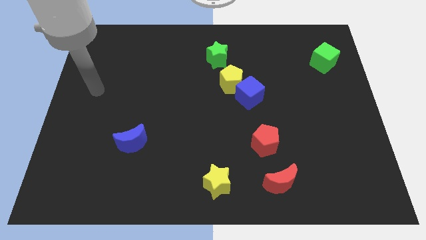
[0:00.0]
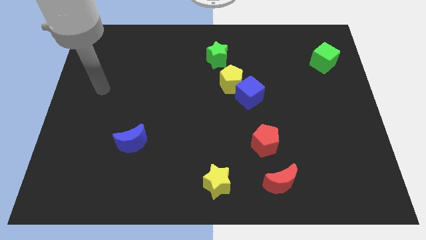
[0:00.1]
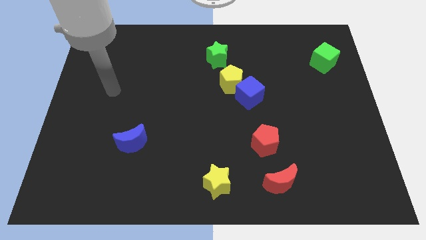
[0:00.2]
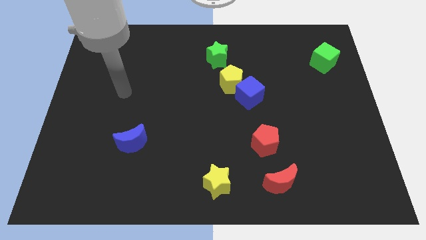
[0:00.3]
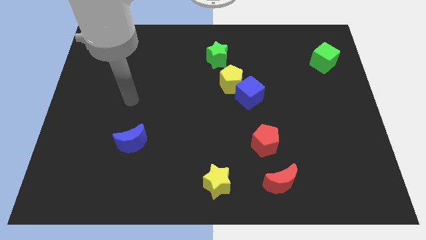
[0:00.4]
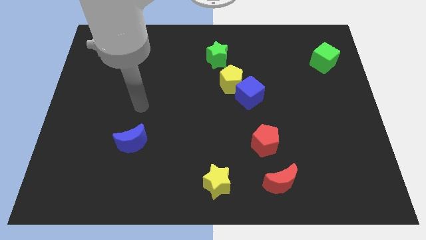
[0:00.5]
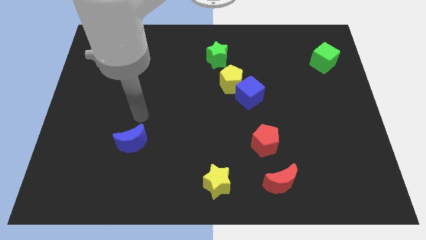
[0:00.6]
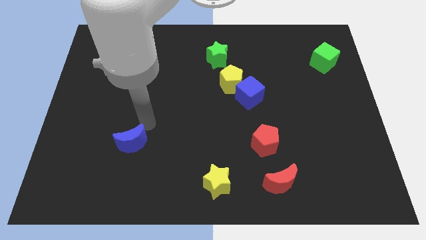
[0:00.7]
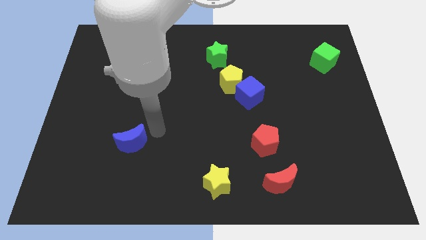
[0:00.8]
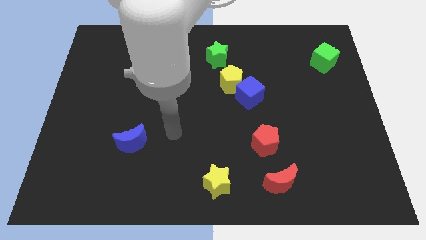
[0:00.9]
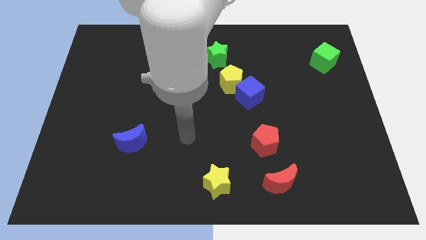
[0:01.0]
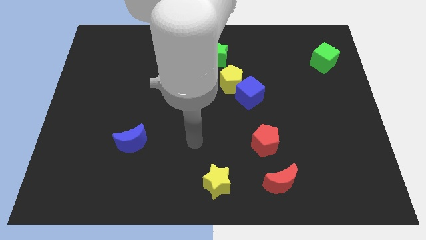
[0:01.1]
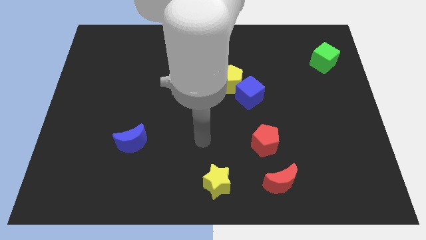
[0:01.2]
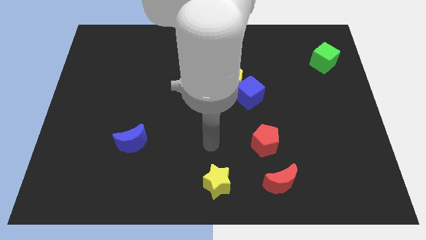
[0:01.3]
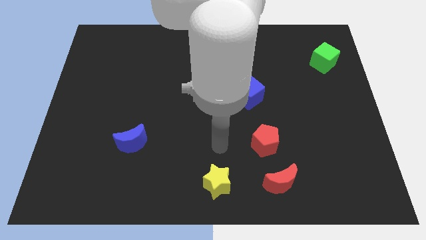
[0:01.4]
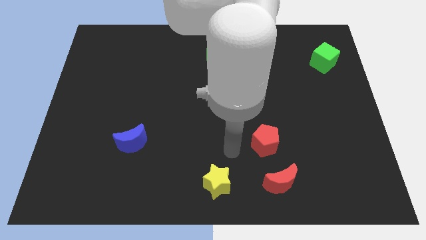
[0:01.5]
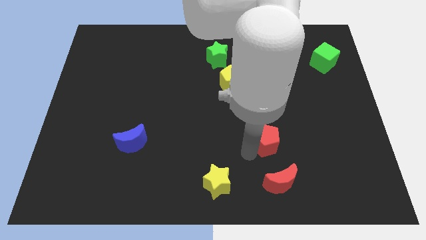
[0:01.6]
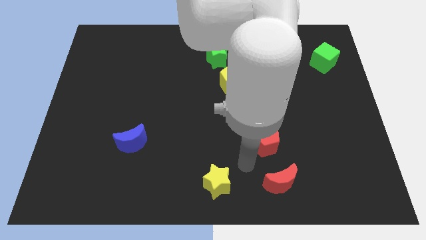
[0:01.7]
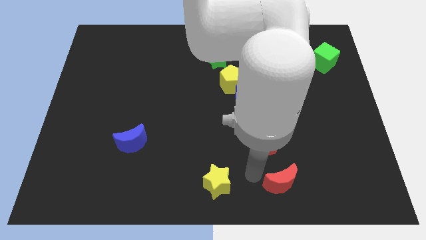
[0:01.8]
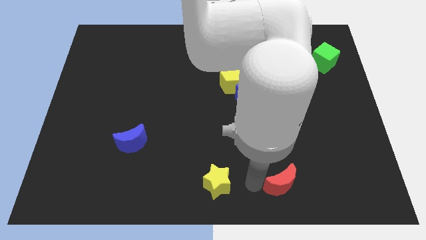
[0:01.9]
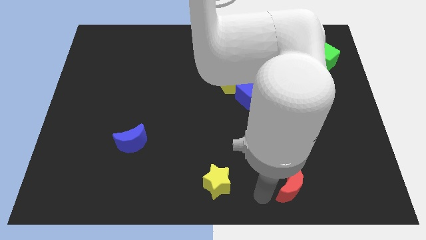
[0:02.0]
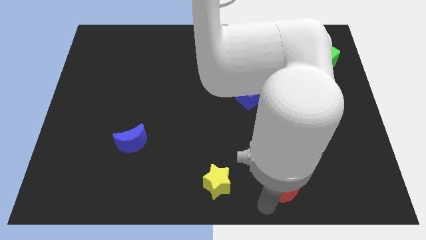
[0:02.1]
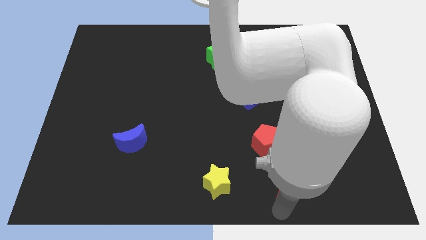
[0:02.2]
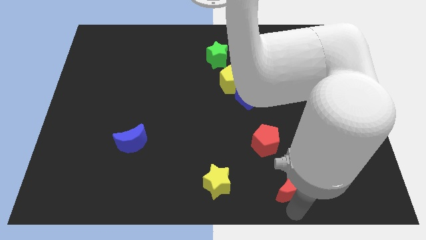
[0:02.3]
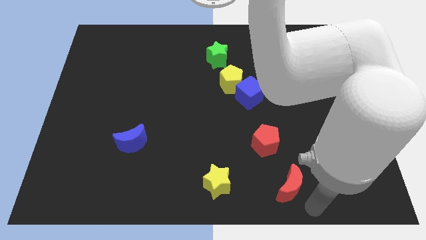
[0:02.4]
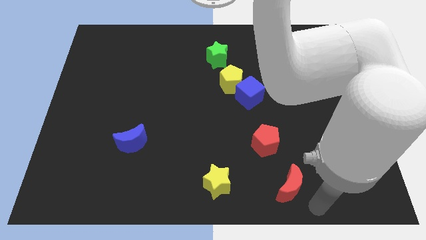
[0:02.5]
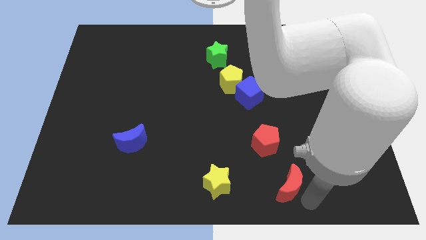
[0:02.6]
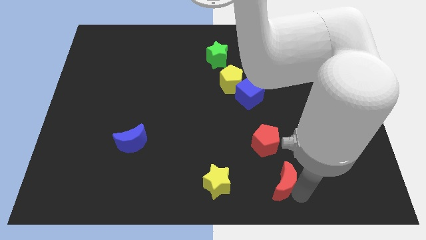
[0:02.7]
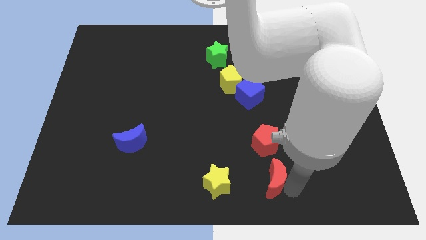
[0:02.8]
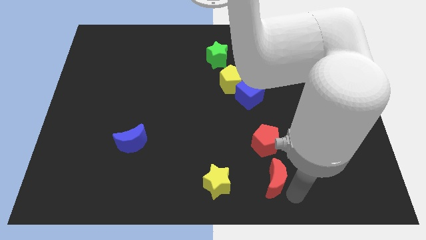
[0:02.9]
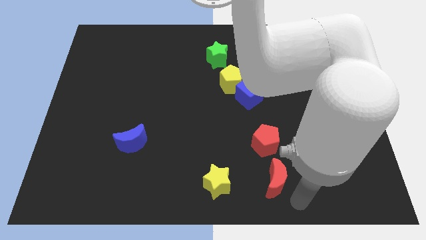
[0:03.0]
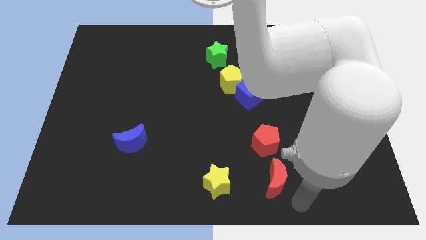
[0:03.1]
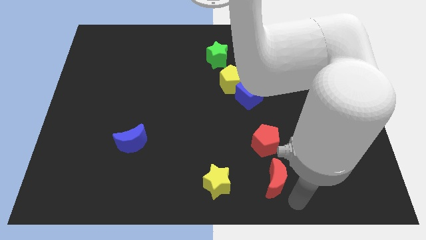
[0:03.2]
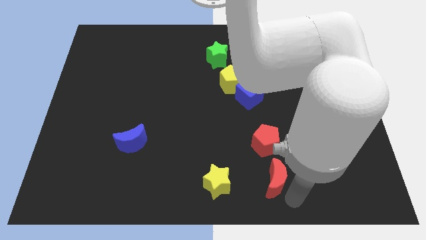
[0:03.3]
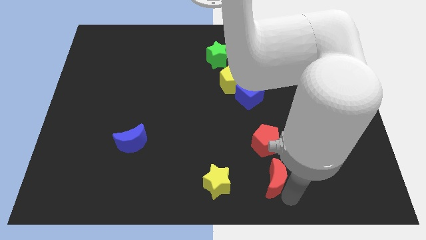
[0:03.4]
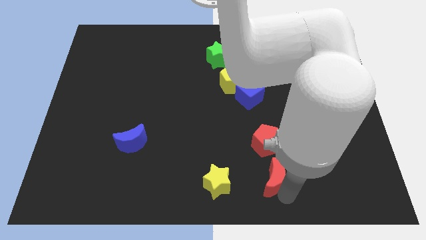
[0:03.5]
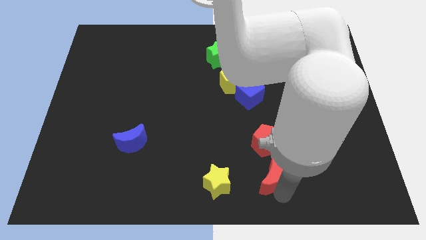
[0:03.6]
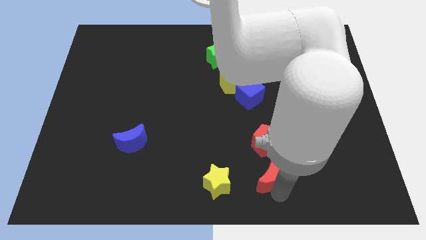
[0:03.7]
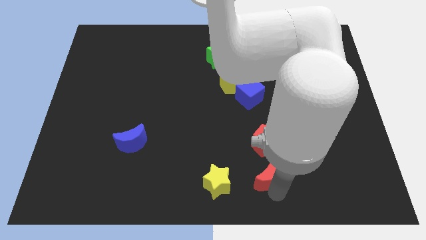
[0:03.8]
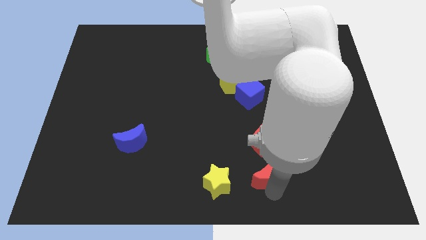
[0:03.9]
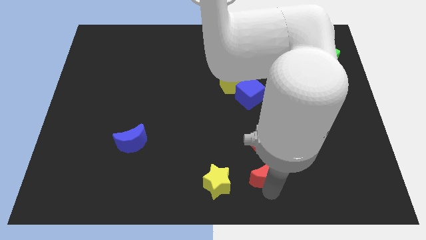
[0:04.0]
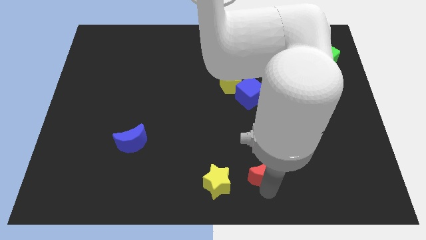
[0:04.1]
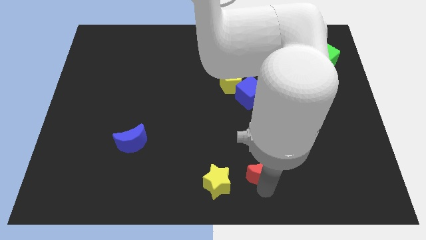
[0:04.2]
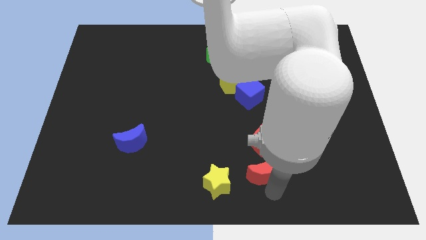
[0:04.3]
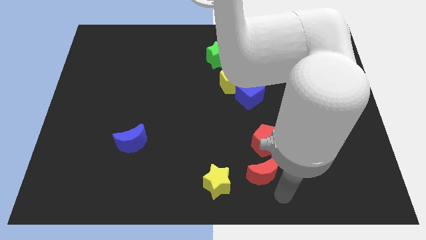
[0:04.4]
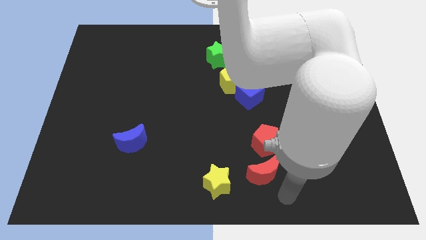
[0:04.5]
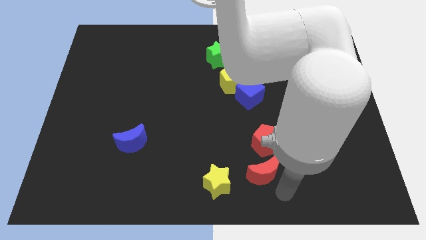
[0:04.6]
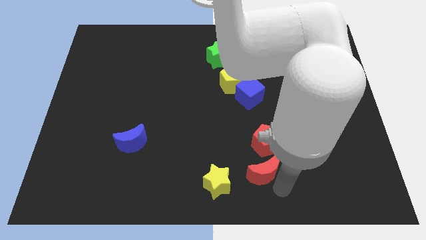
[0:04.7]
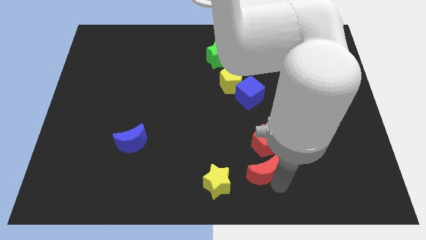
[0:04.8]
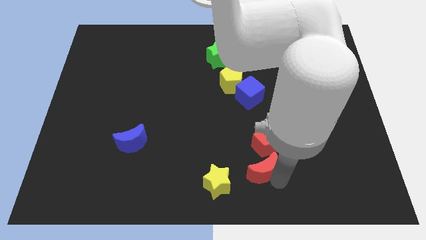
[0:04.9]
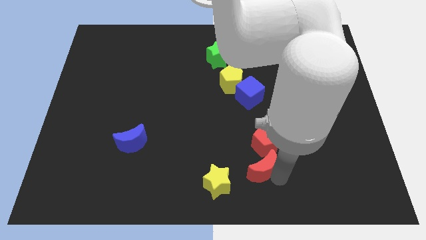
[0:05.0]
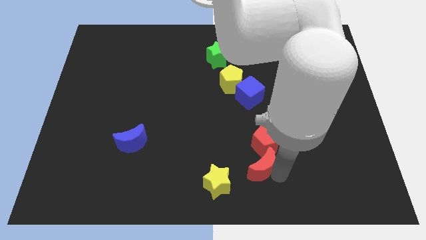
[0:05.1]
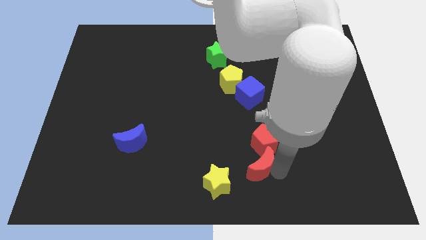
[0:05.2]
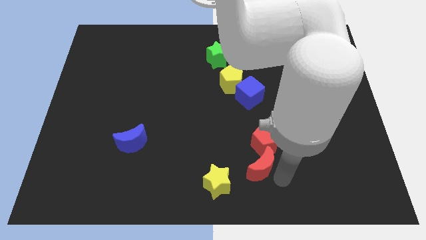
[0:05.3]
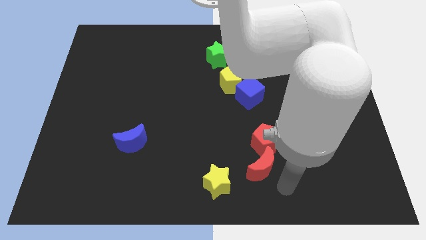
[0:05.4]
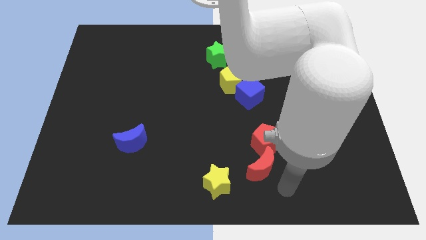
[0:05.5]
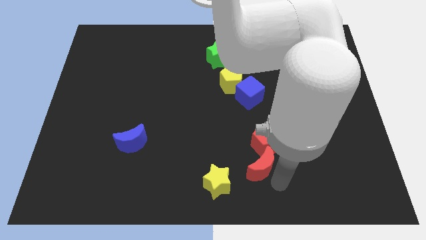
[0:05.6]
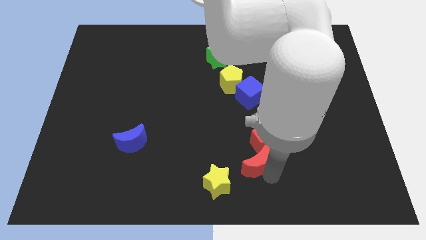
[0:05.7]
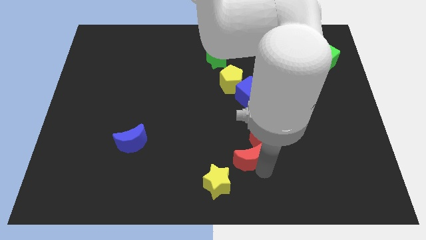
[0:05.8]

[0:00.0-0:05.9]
slightly push the red moon upwards and left diagonally

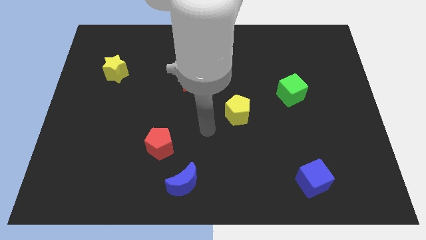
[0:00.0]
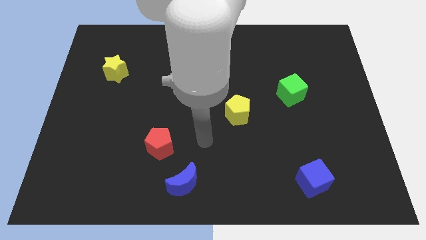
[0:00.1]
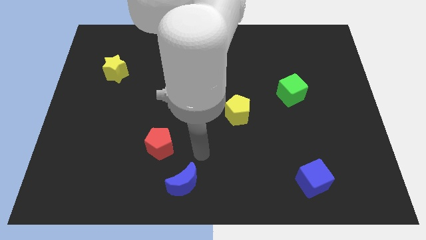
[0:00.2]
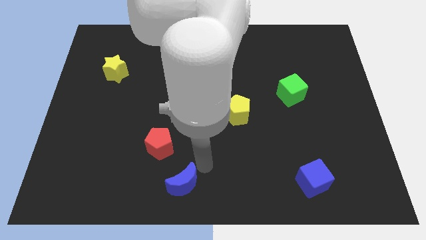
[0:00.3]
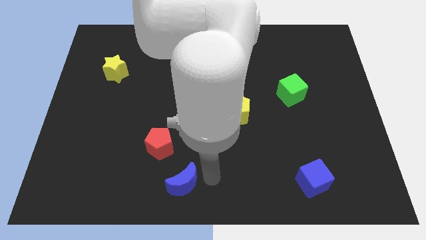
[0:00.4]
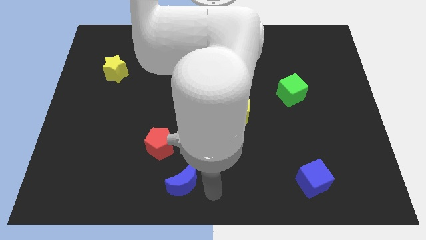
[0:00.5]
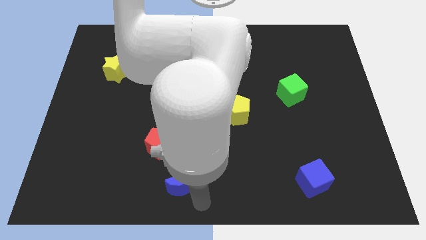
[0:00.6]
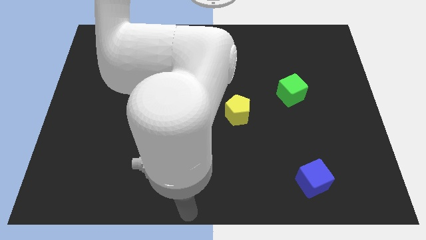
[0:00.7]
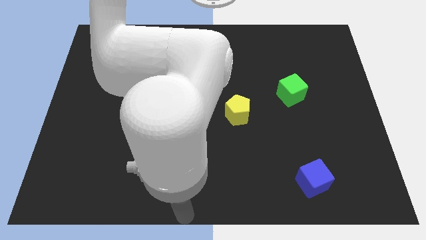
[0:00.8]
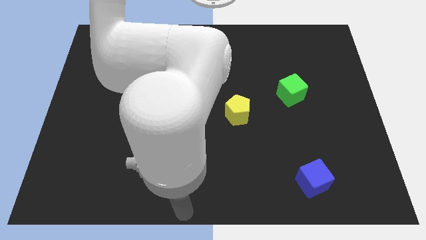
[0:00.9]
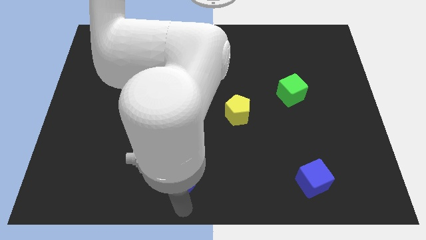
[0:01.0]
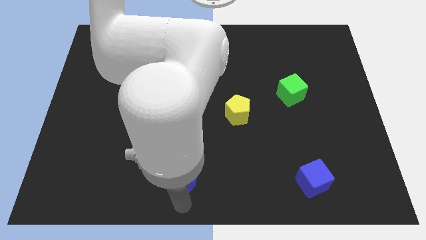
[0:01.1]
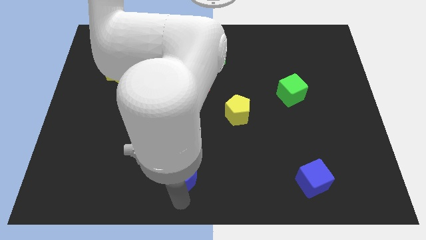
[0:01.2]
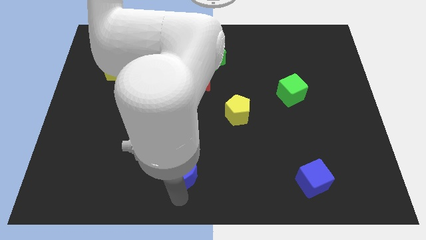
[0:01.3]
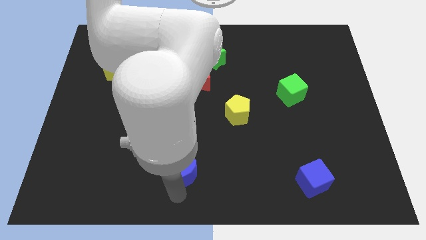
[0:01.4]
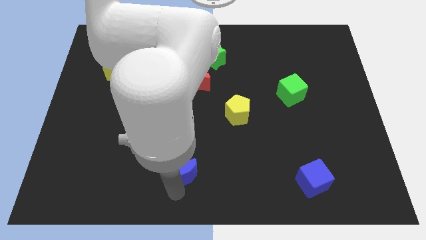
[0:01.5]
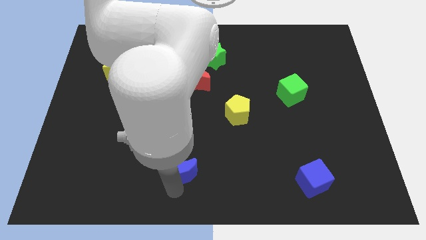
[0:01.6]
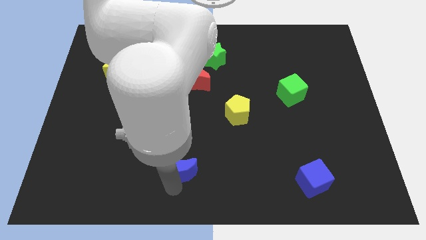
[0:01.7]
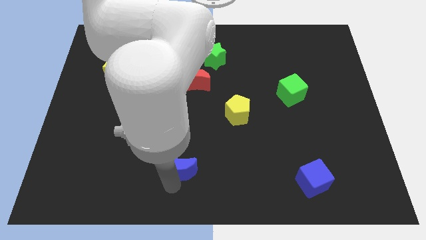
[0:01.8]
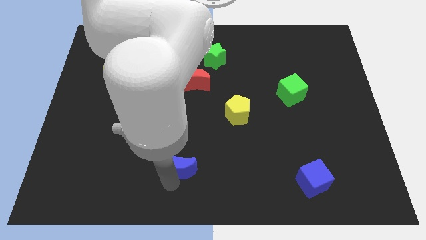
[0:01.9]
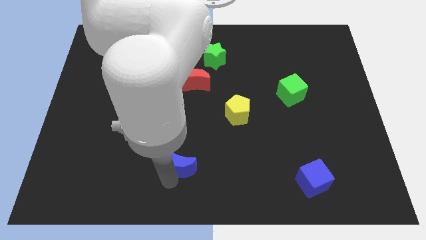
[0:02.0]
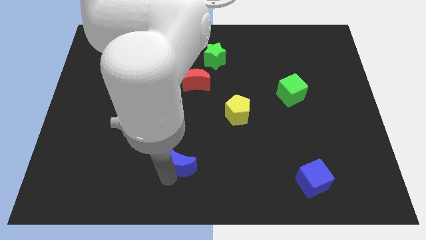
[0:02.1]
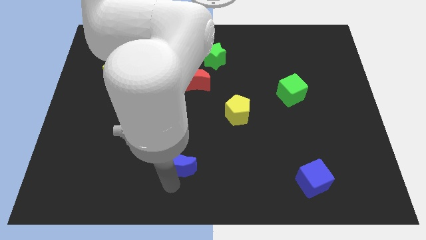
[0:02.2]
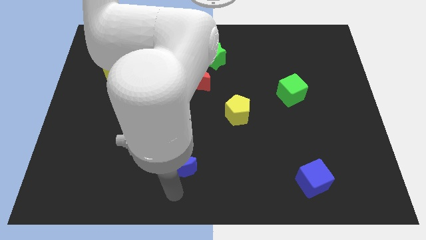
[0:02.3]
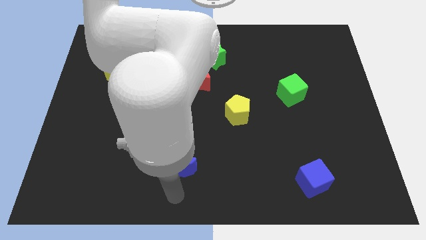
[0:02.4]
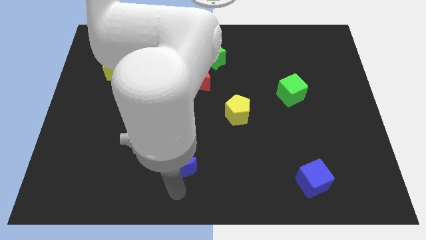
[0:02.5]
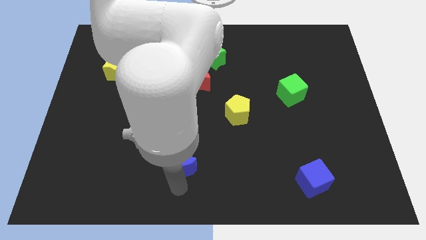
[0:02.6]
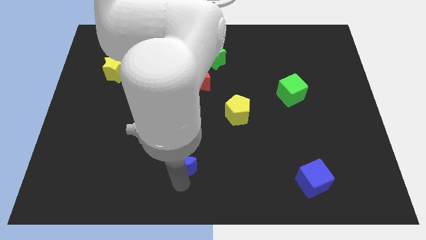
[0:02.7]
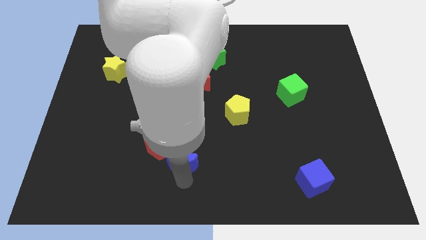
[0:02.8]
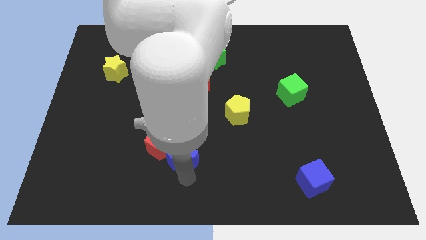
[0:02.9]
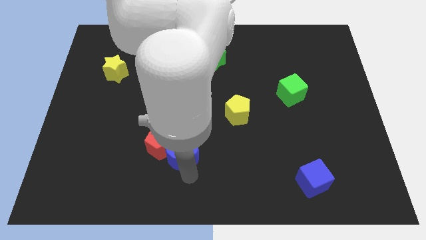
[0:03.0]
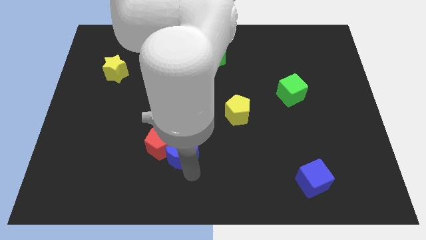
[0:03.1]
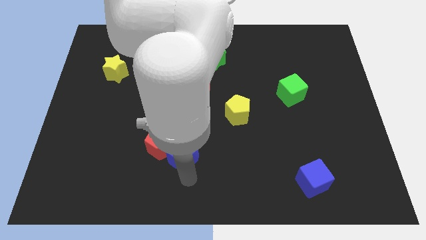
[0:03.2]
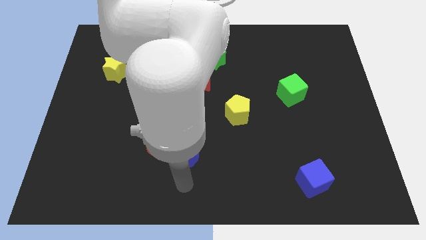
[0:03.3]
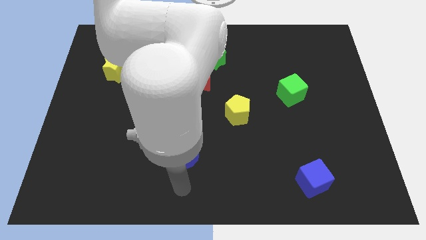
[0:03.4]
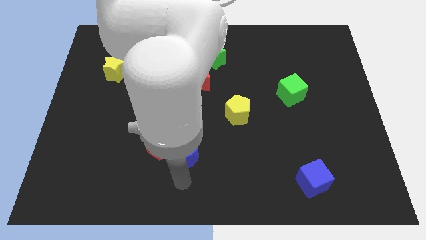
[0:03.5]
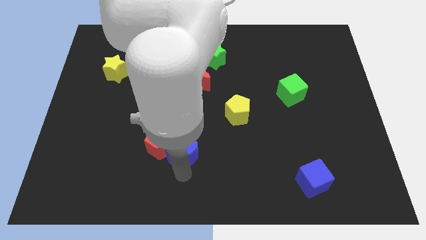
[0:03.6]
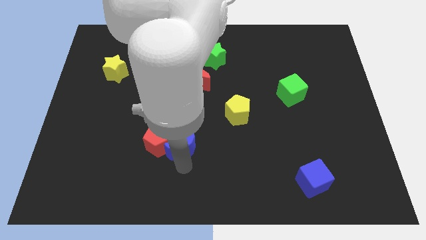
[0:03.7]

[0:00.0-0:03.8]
move the blue moon up a little bit
